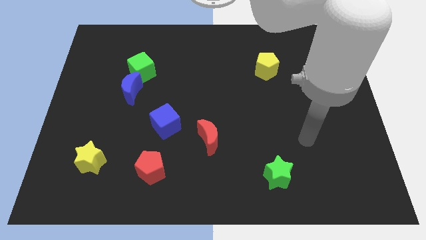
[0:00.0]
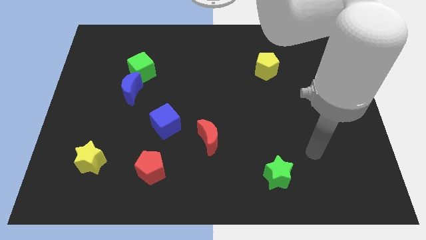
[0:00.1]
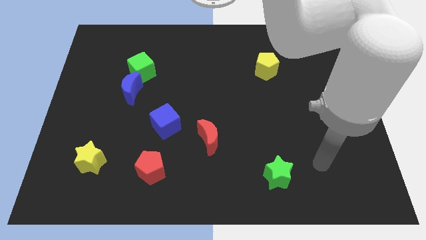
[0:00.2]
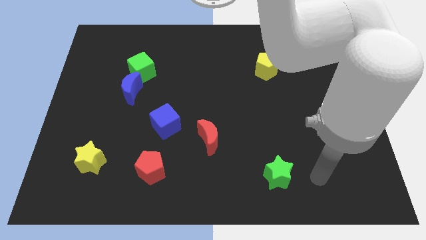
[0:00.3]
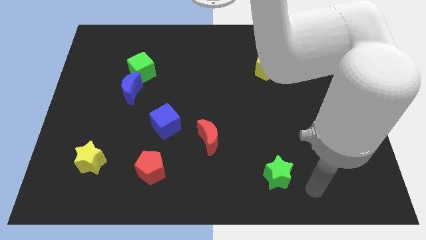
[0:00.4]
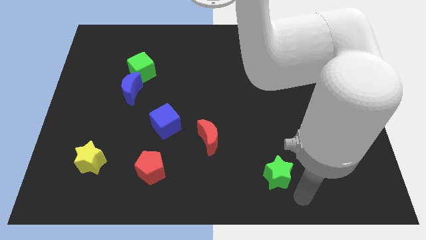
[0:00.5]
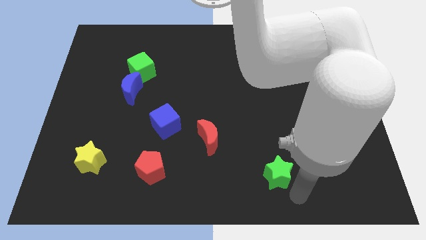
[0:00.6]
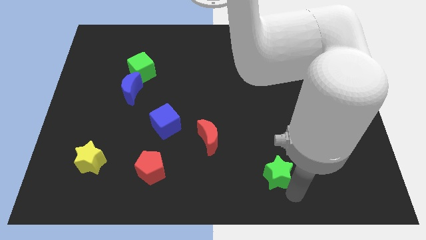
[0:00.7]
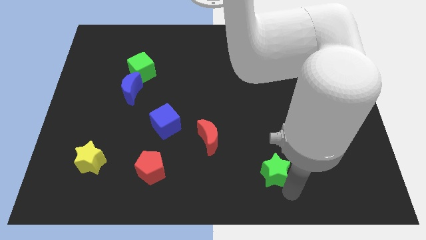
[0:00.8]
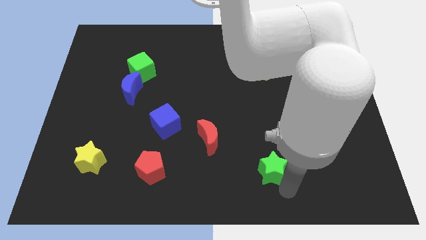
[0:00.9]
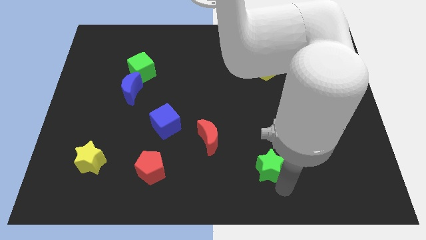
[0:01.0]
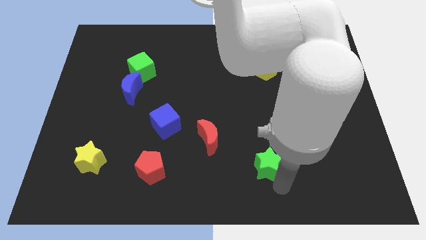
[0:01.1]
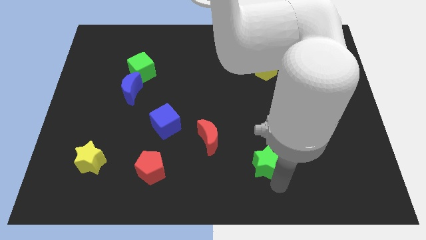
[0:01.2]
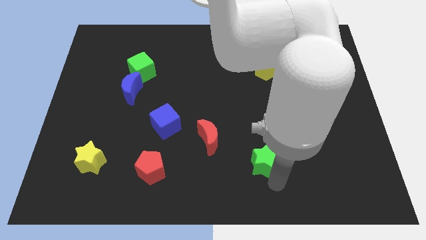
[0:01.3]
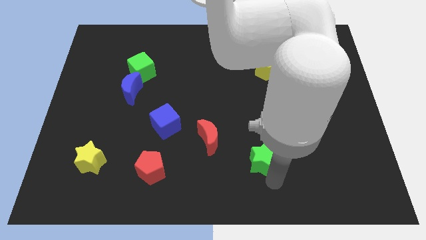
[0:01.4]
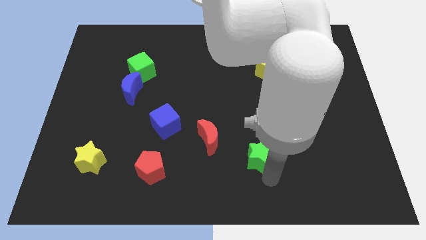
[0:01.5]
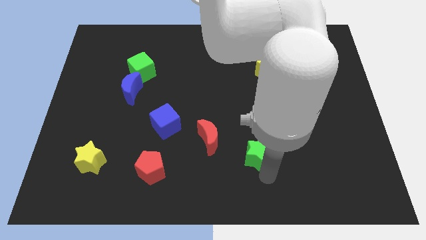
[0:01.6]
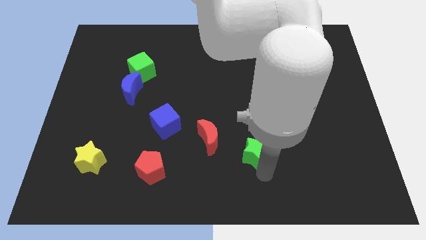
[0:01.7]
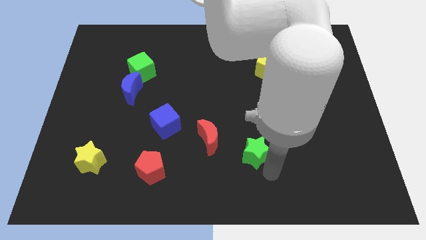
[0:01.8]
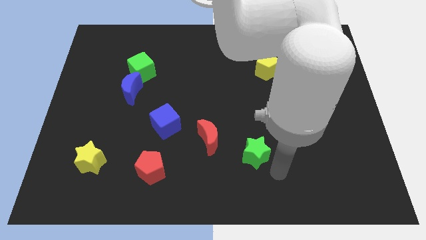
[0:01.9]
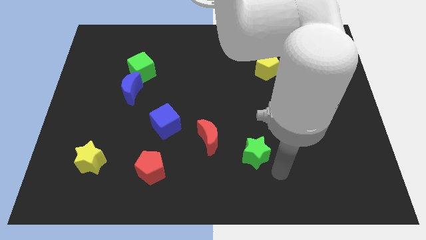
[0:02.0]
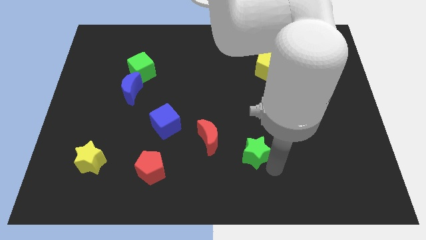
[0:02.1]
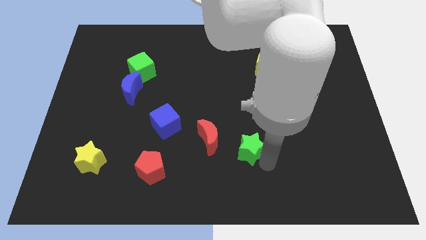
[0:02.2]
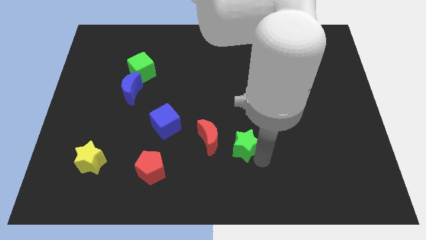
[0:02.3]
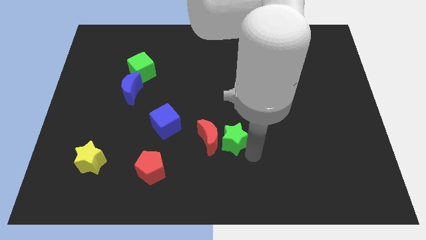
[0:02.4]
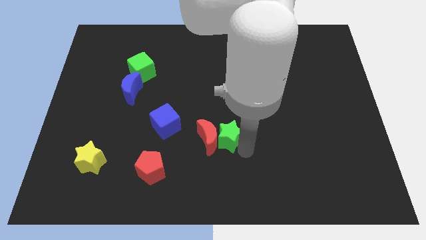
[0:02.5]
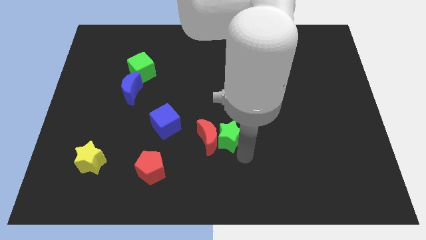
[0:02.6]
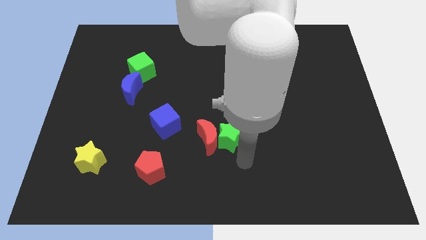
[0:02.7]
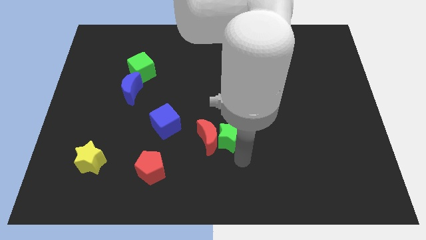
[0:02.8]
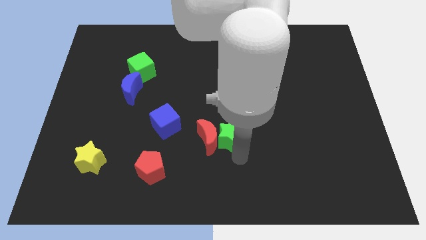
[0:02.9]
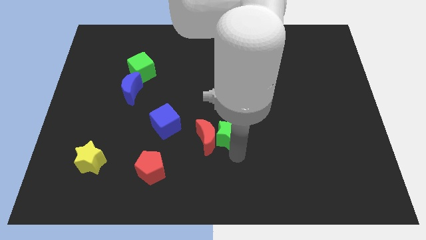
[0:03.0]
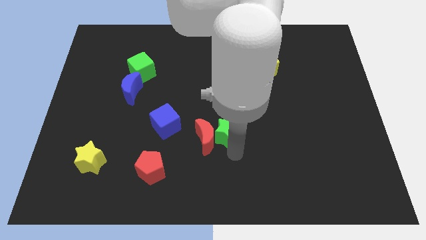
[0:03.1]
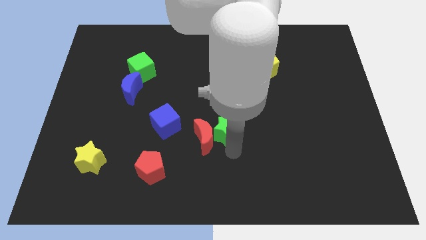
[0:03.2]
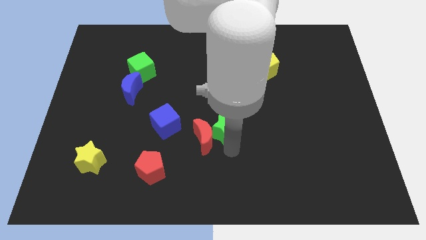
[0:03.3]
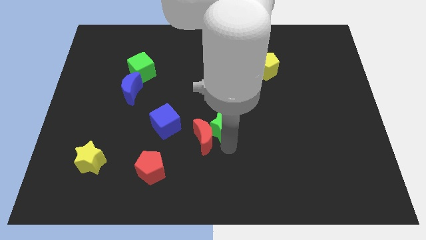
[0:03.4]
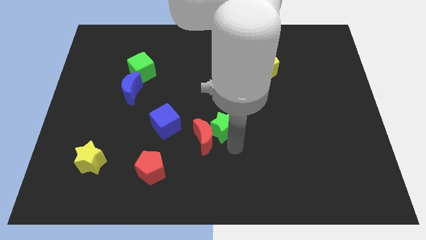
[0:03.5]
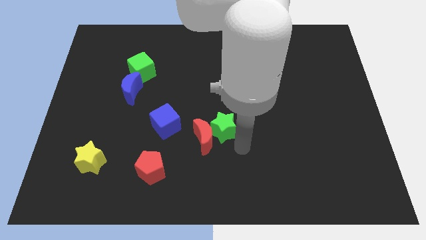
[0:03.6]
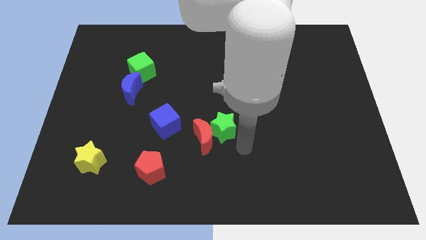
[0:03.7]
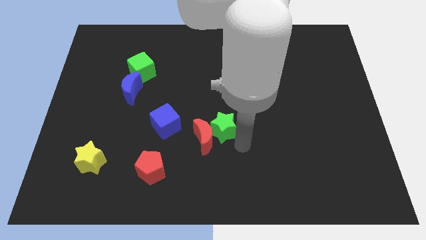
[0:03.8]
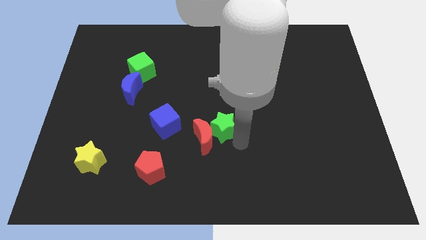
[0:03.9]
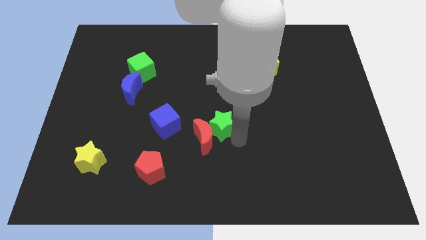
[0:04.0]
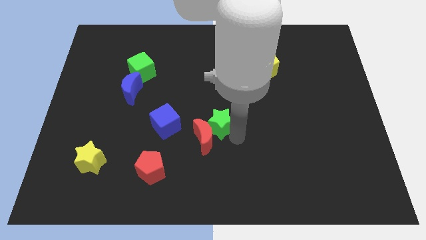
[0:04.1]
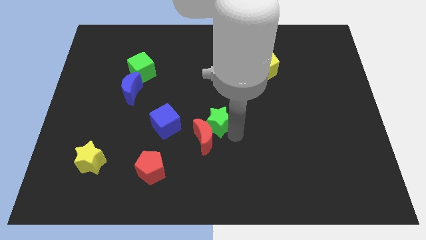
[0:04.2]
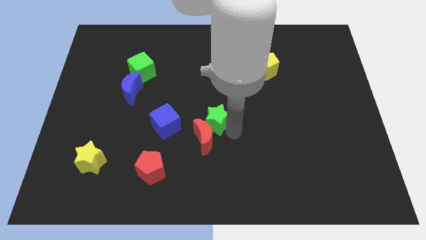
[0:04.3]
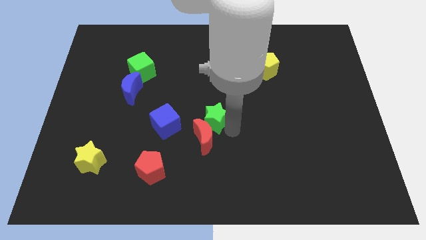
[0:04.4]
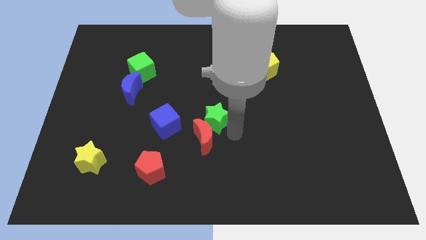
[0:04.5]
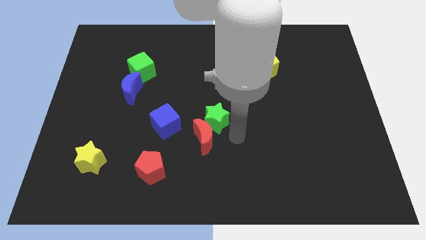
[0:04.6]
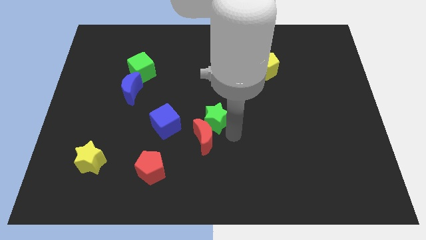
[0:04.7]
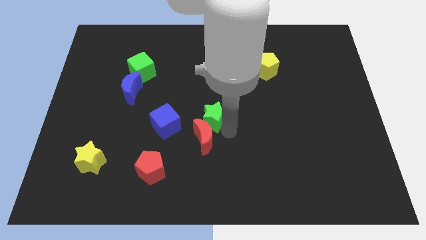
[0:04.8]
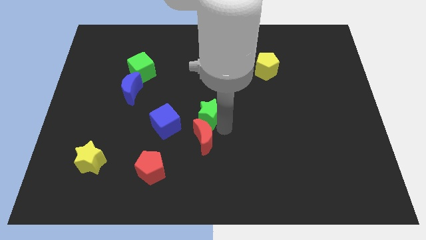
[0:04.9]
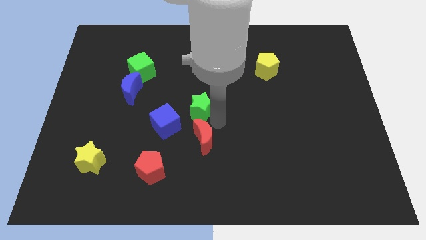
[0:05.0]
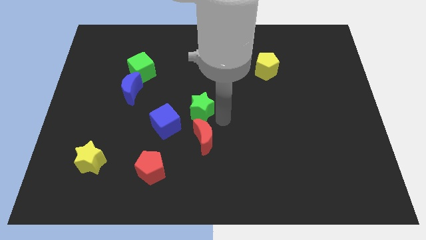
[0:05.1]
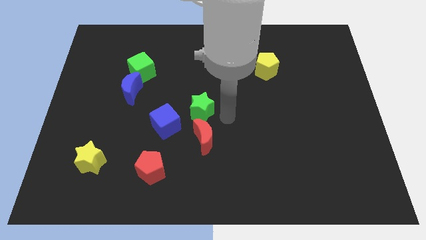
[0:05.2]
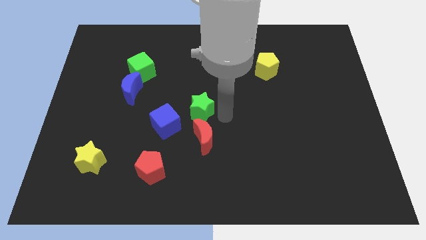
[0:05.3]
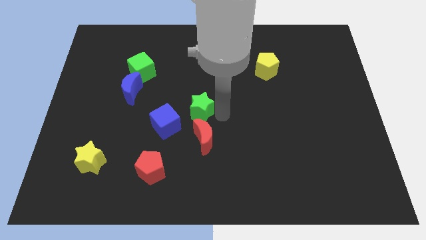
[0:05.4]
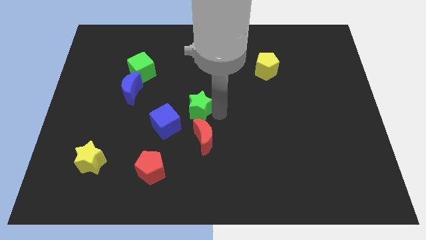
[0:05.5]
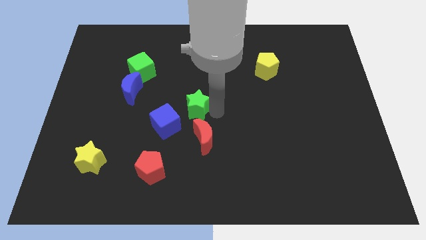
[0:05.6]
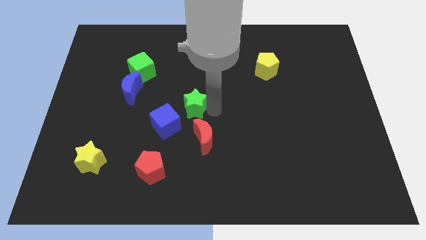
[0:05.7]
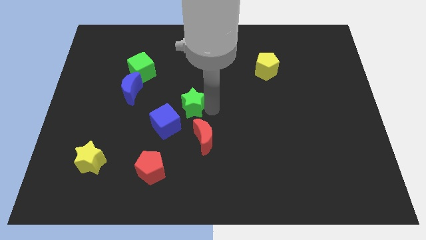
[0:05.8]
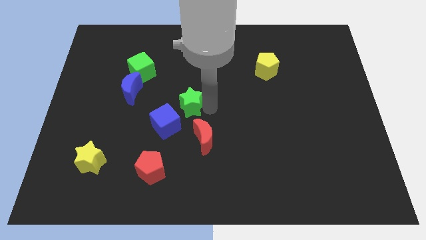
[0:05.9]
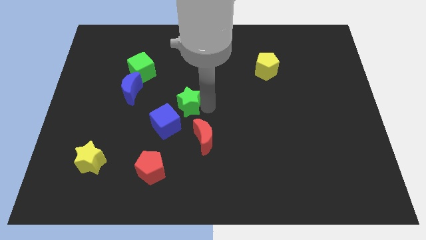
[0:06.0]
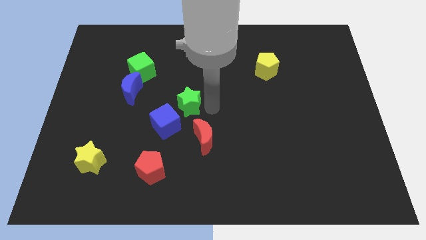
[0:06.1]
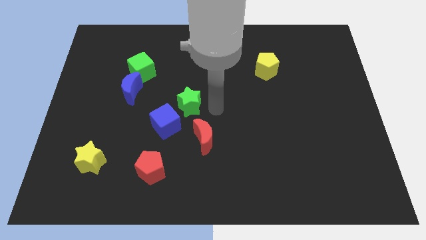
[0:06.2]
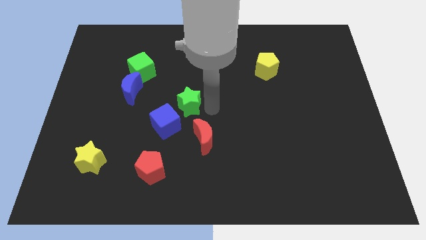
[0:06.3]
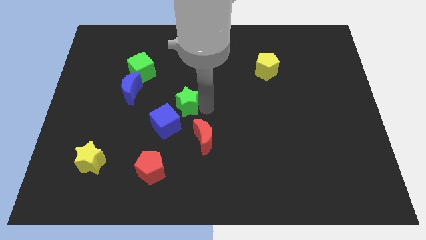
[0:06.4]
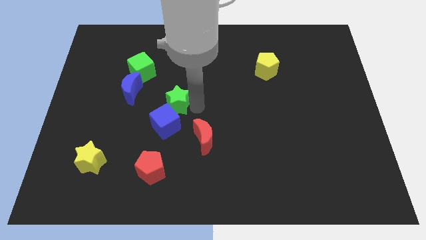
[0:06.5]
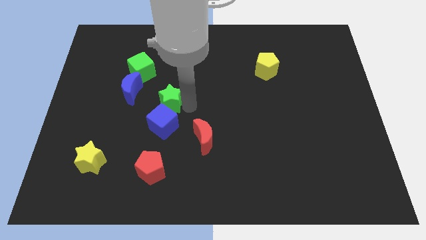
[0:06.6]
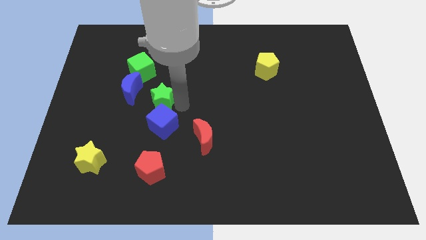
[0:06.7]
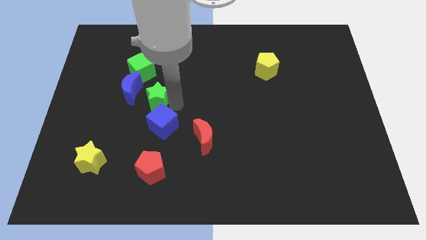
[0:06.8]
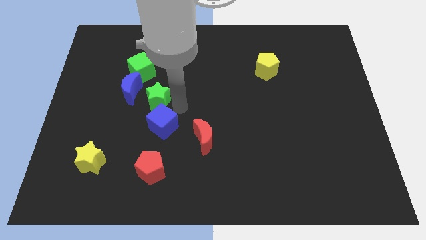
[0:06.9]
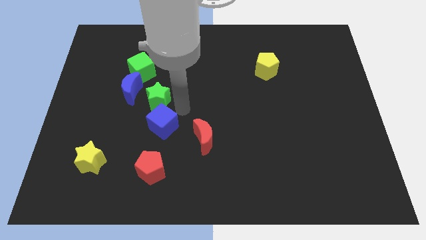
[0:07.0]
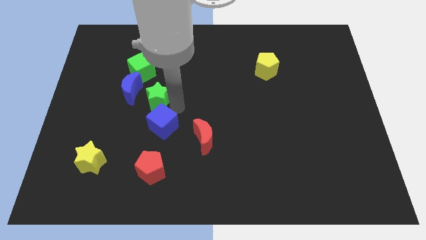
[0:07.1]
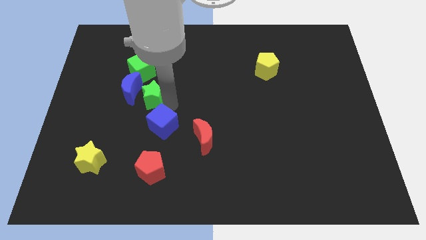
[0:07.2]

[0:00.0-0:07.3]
put the green star towards the blue moon

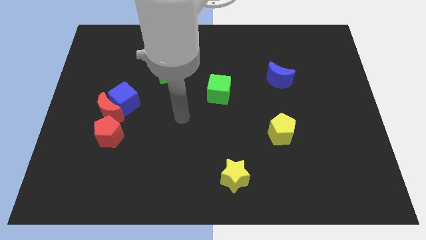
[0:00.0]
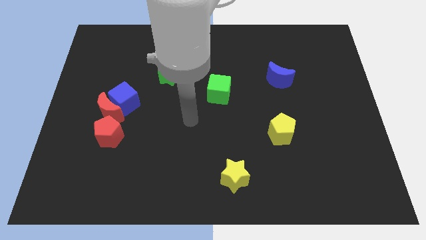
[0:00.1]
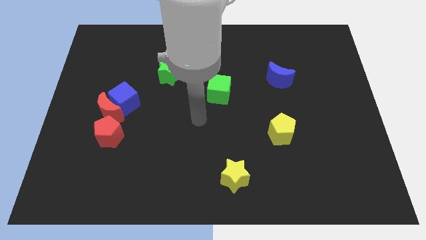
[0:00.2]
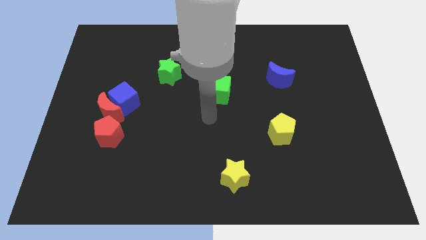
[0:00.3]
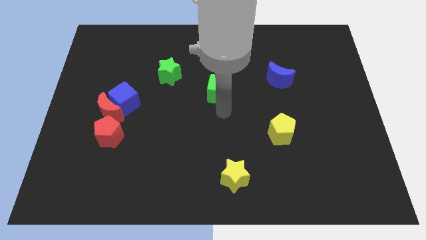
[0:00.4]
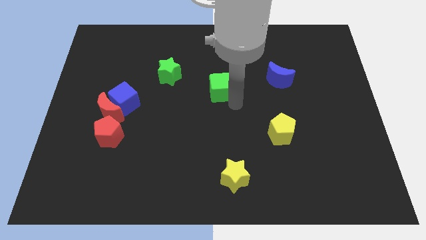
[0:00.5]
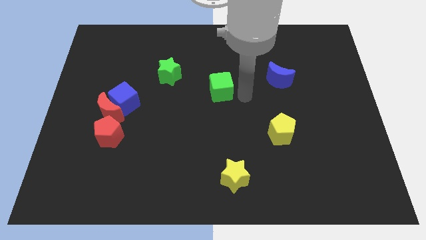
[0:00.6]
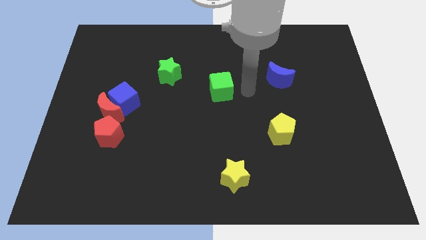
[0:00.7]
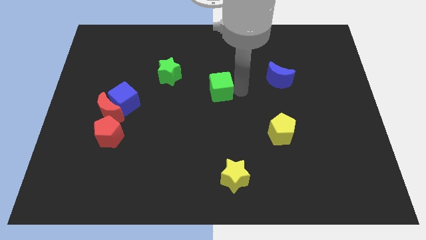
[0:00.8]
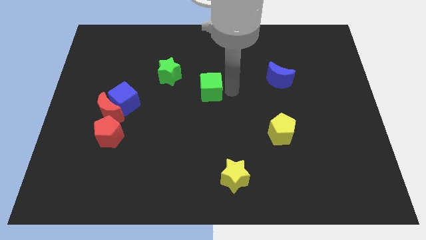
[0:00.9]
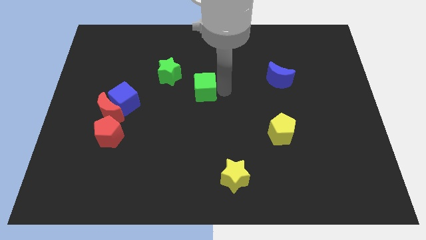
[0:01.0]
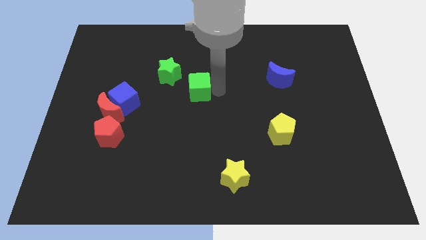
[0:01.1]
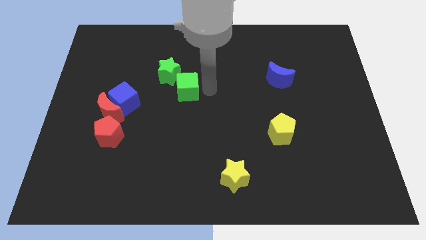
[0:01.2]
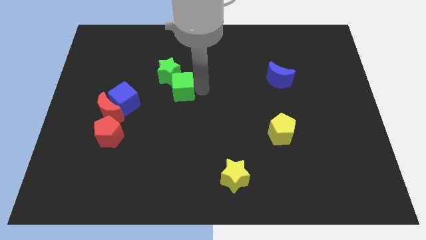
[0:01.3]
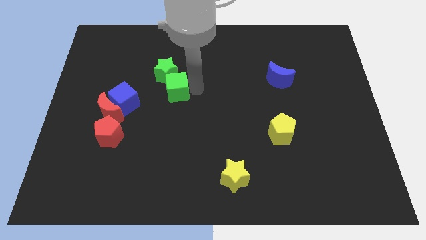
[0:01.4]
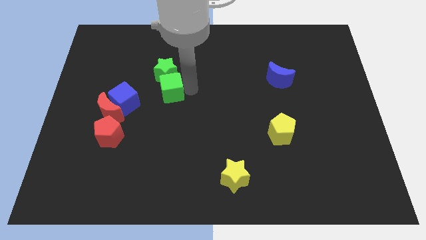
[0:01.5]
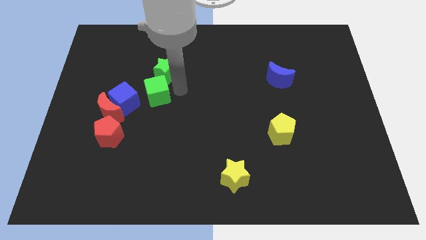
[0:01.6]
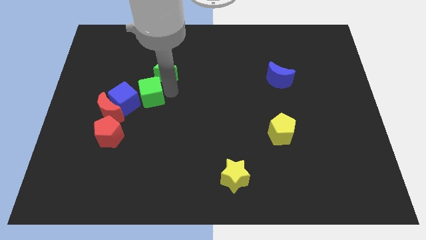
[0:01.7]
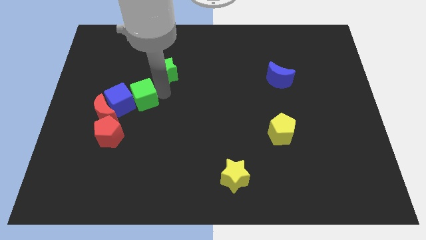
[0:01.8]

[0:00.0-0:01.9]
push the green cube next to the blue cube
